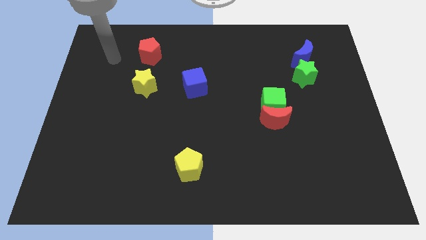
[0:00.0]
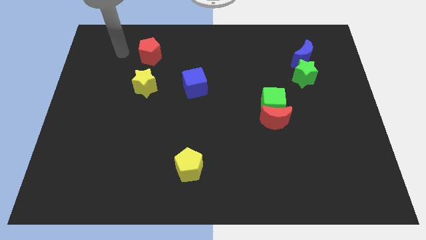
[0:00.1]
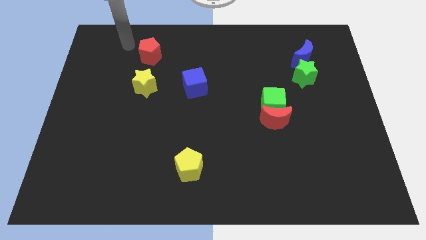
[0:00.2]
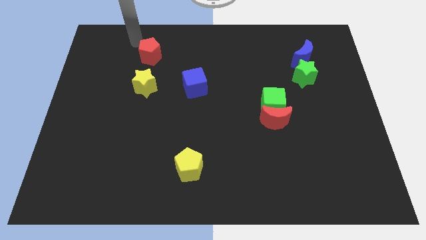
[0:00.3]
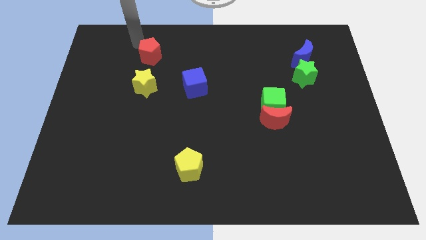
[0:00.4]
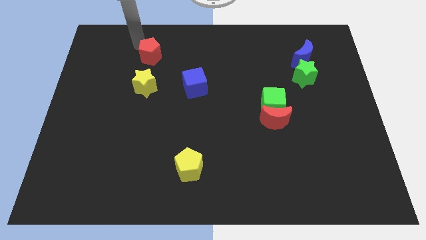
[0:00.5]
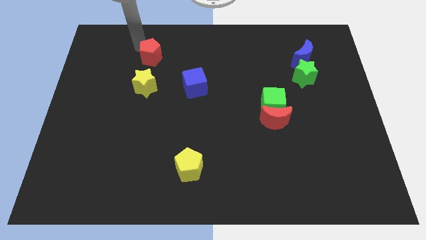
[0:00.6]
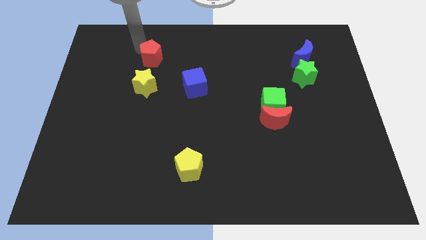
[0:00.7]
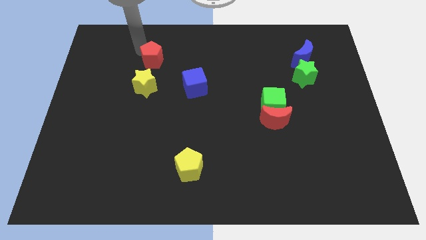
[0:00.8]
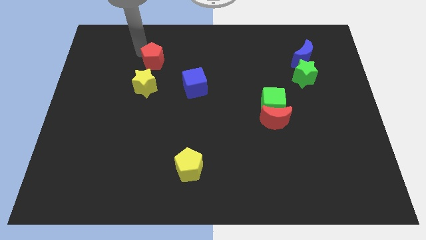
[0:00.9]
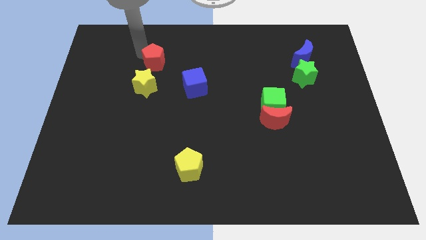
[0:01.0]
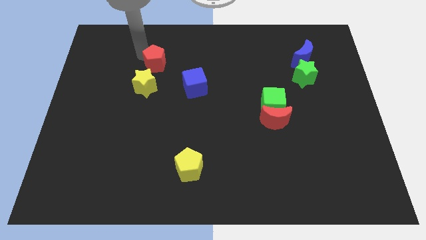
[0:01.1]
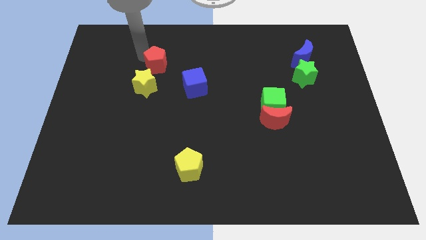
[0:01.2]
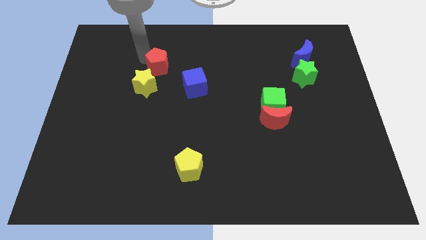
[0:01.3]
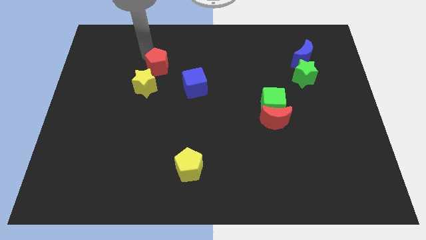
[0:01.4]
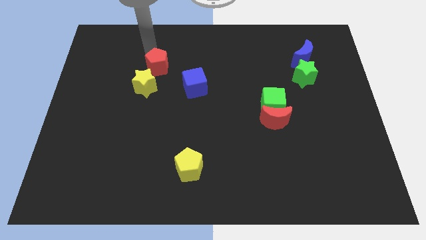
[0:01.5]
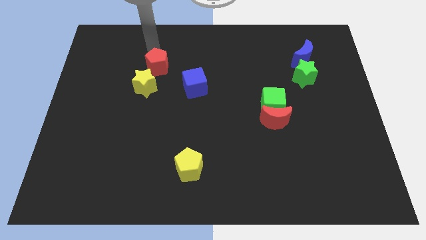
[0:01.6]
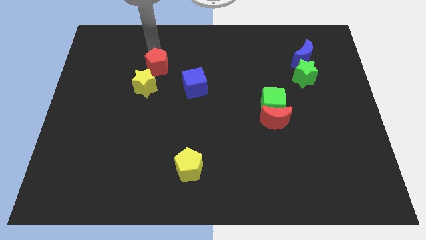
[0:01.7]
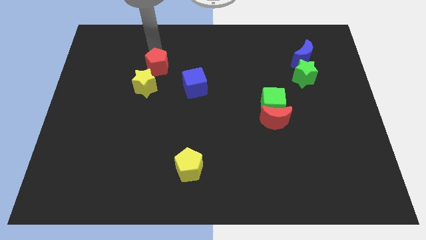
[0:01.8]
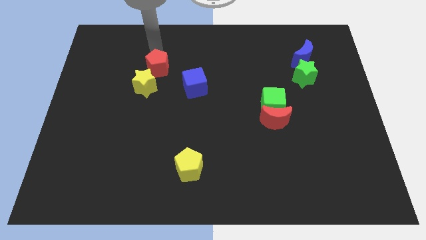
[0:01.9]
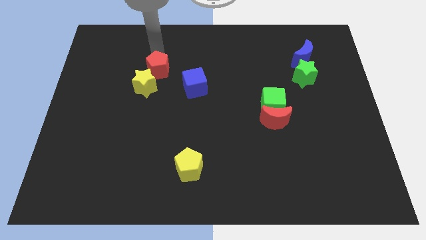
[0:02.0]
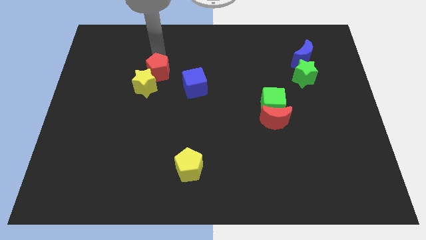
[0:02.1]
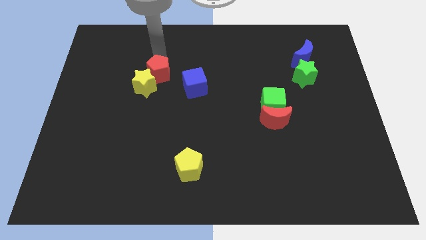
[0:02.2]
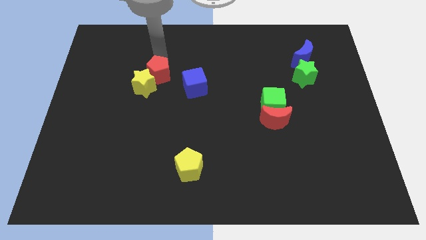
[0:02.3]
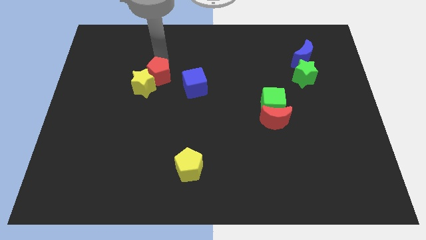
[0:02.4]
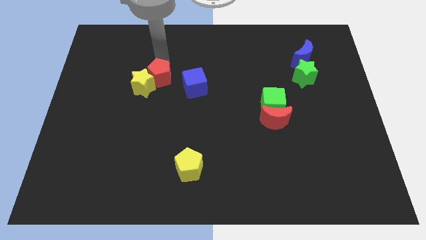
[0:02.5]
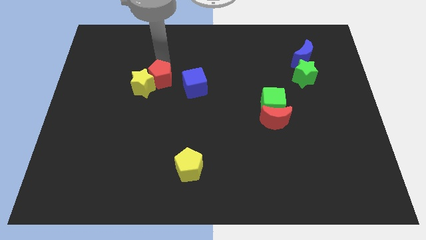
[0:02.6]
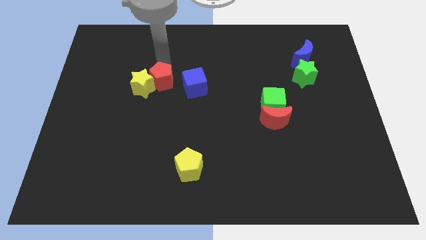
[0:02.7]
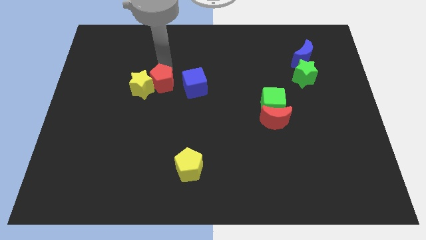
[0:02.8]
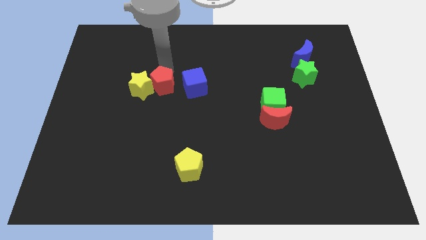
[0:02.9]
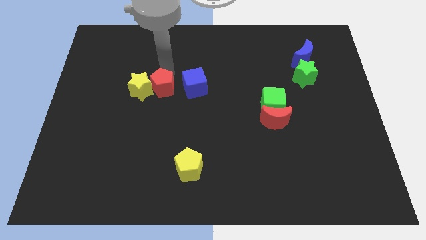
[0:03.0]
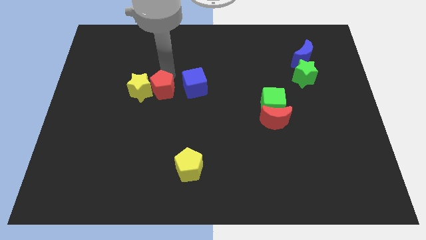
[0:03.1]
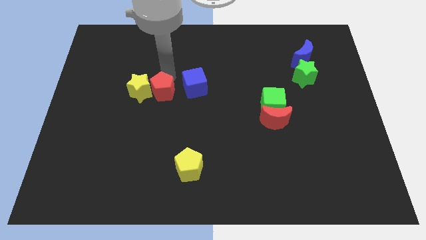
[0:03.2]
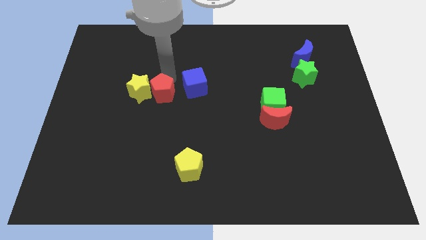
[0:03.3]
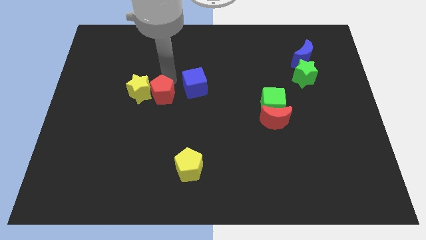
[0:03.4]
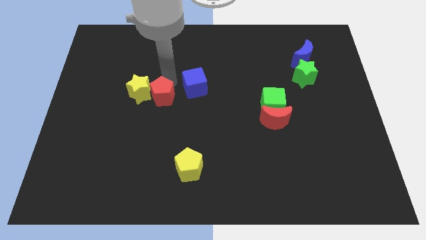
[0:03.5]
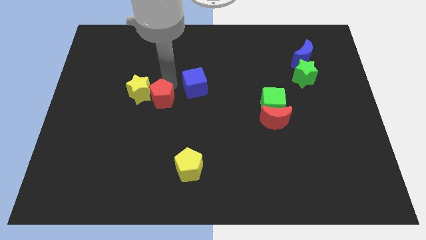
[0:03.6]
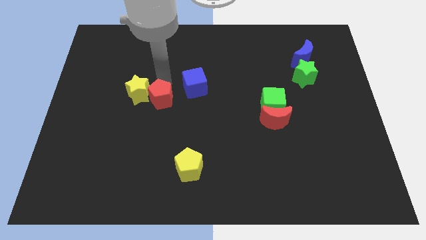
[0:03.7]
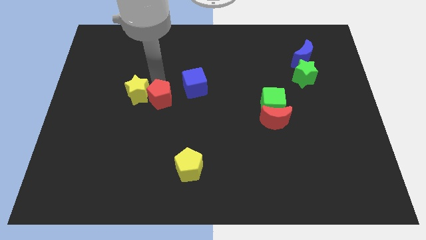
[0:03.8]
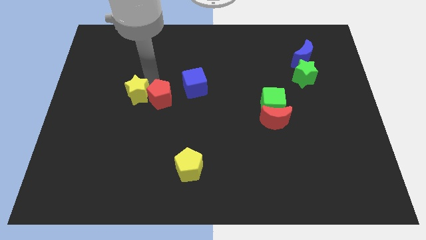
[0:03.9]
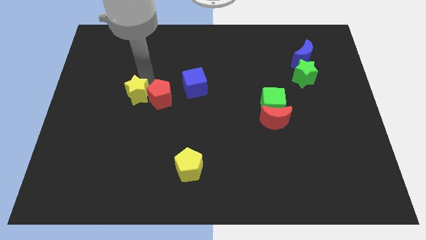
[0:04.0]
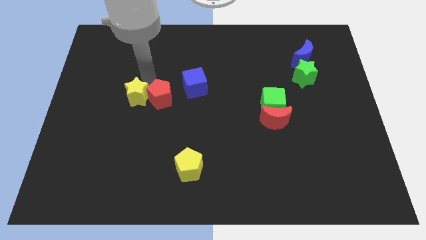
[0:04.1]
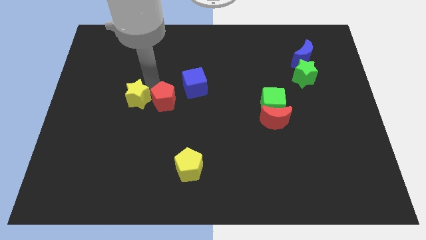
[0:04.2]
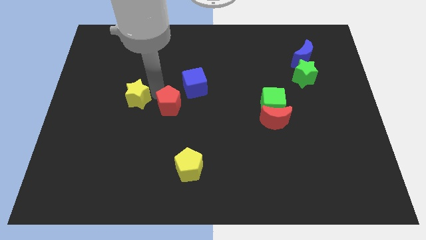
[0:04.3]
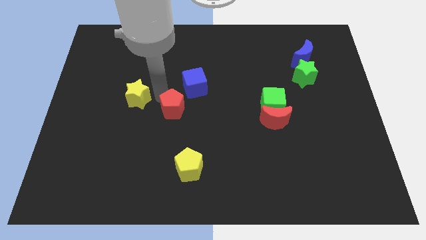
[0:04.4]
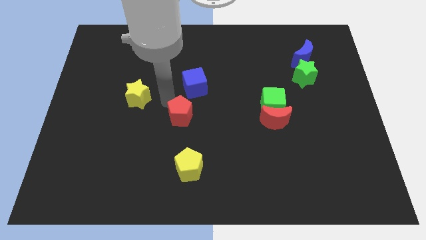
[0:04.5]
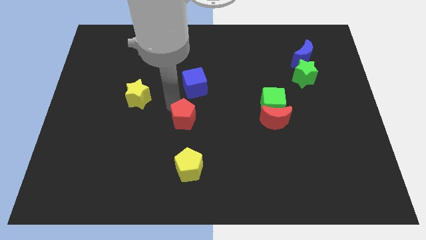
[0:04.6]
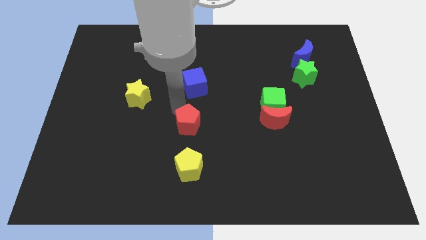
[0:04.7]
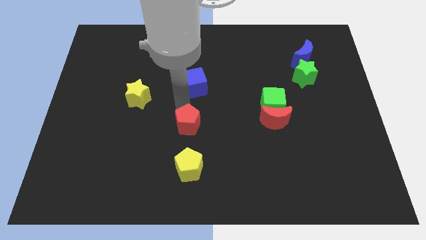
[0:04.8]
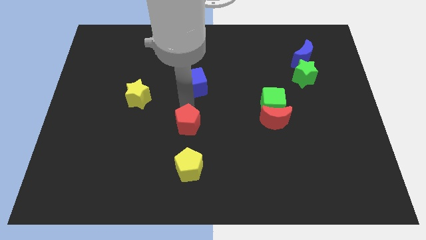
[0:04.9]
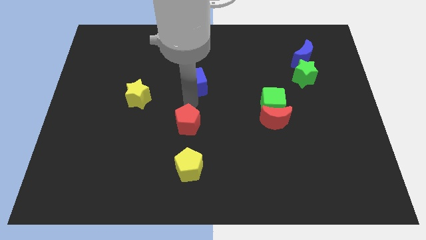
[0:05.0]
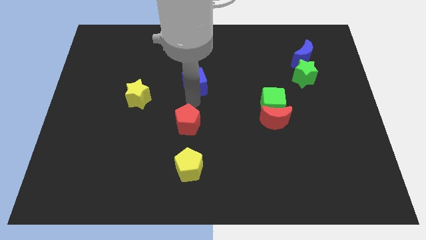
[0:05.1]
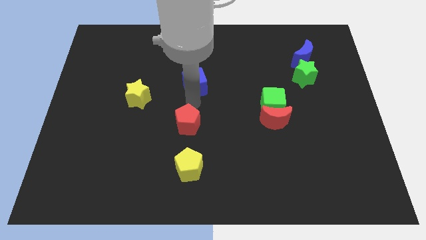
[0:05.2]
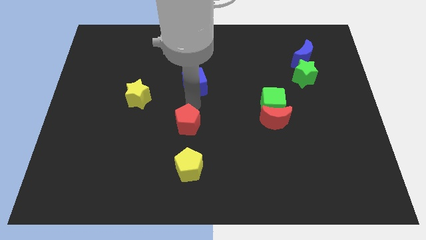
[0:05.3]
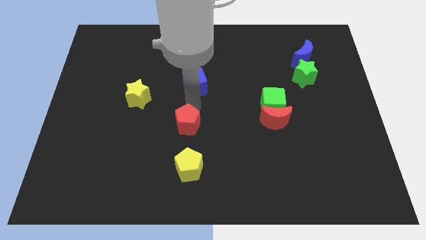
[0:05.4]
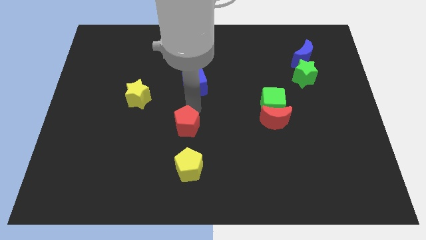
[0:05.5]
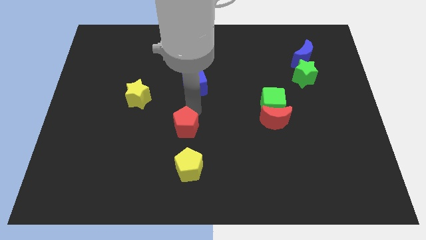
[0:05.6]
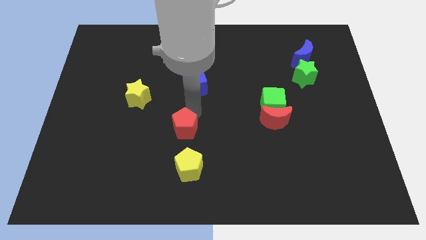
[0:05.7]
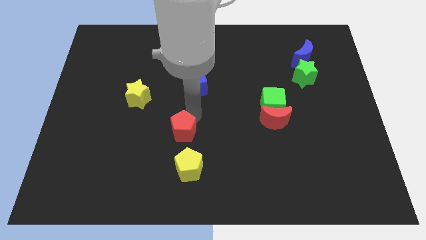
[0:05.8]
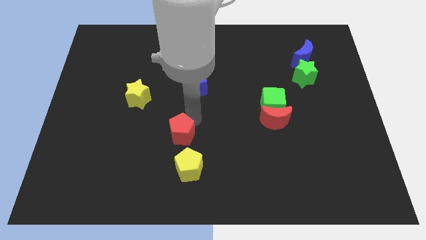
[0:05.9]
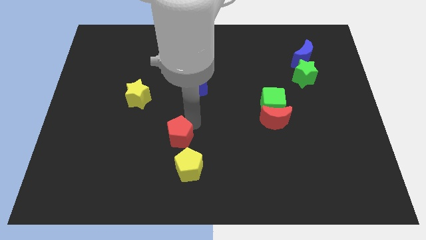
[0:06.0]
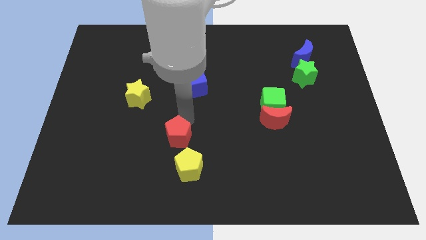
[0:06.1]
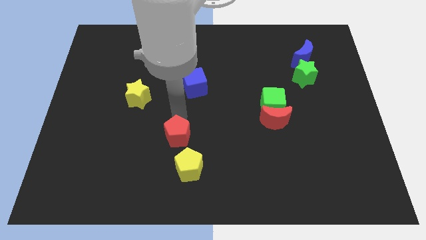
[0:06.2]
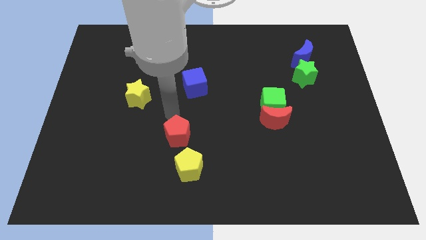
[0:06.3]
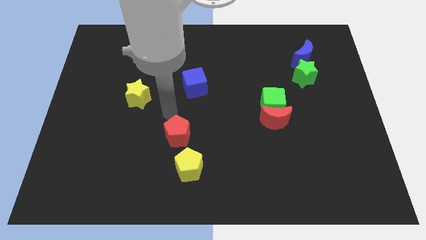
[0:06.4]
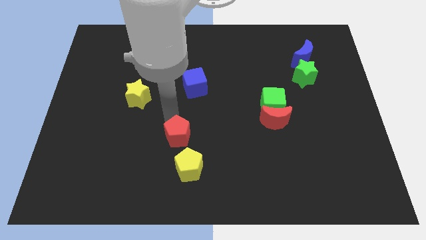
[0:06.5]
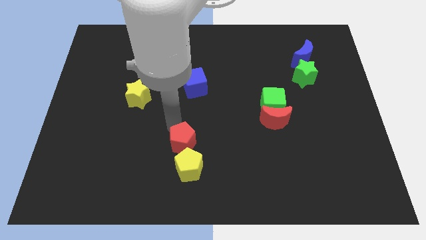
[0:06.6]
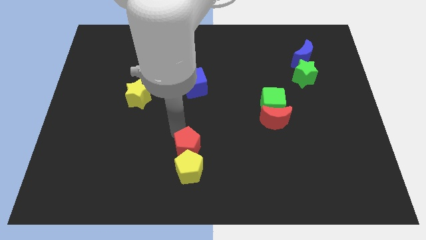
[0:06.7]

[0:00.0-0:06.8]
put the red pentagon close to the yellow pentagon
